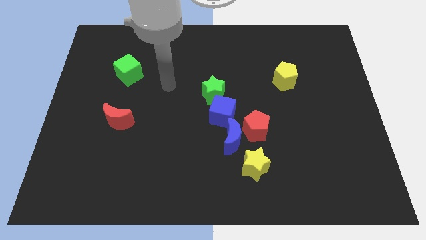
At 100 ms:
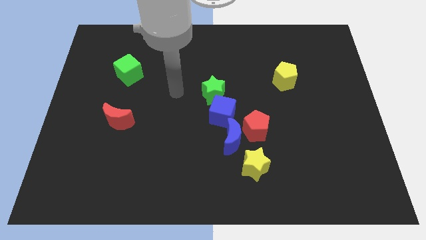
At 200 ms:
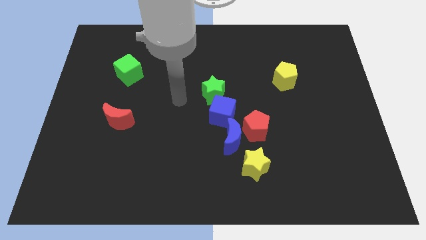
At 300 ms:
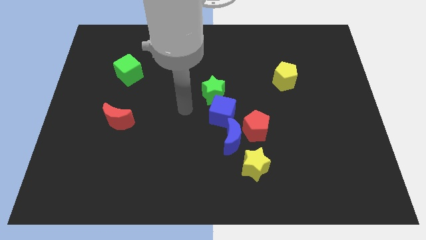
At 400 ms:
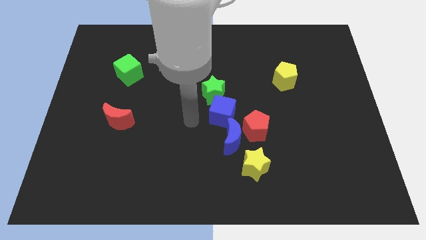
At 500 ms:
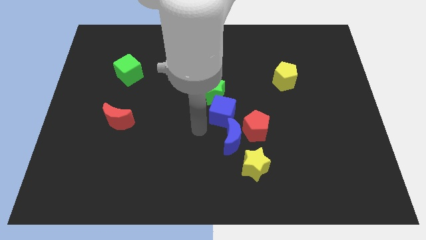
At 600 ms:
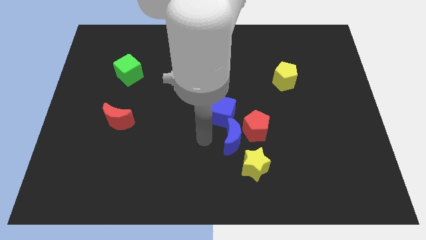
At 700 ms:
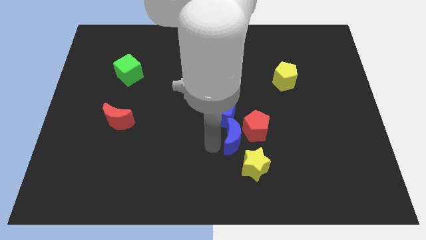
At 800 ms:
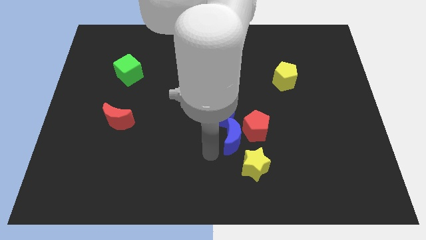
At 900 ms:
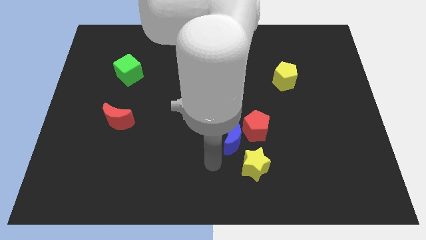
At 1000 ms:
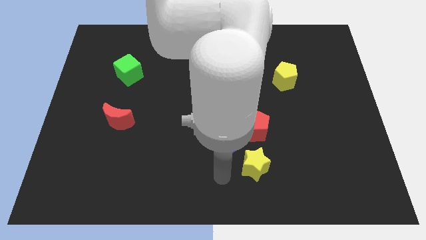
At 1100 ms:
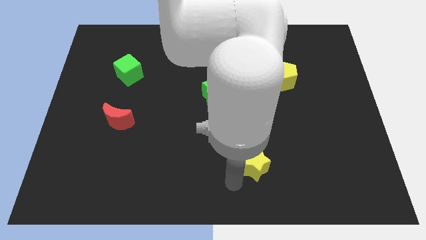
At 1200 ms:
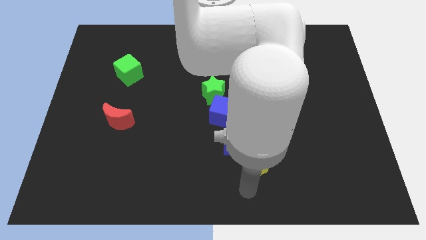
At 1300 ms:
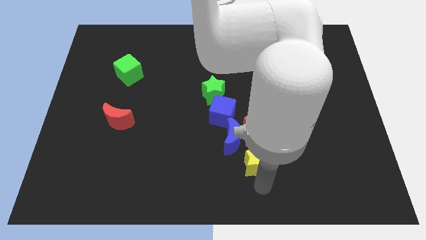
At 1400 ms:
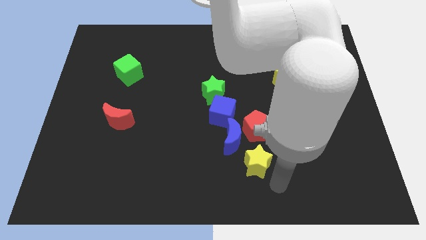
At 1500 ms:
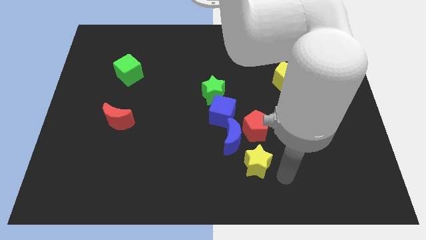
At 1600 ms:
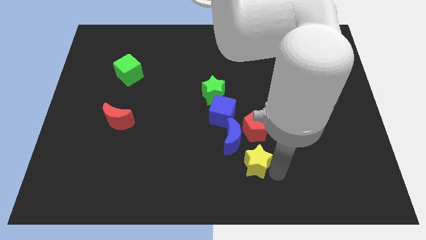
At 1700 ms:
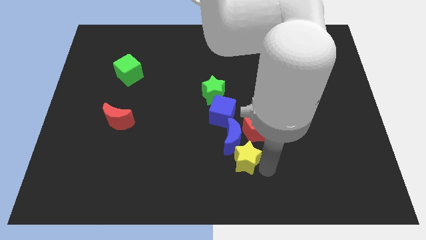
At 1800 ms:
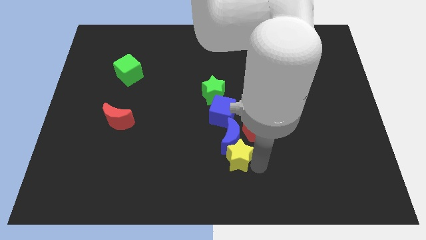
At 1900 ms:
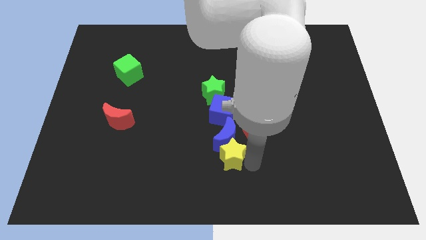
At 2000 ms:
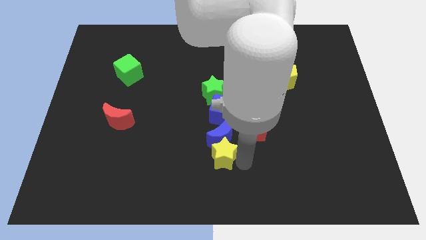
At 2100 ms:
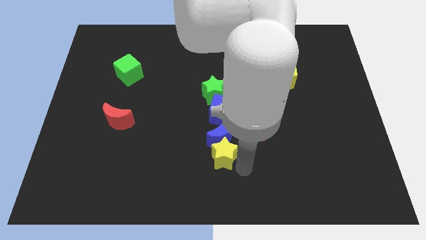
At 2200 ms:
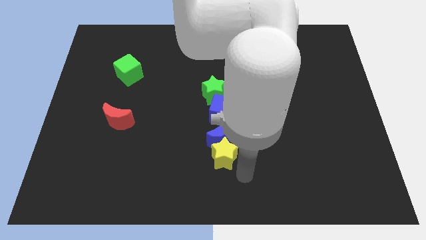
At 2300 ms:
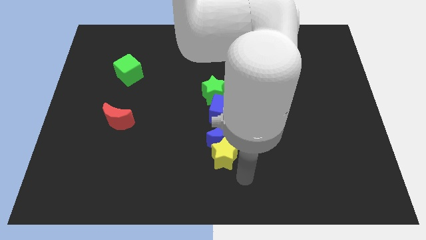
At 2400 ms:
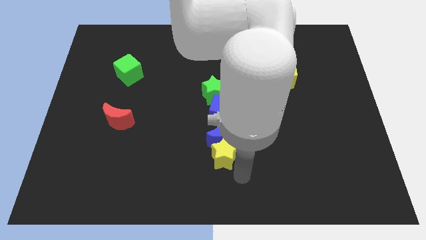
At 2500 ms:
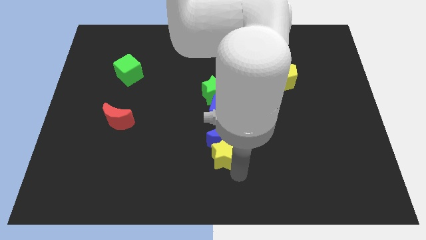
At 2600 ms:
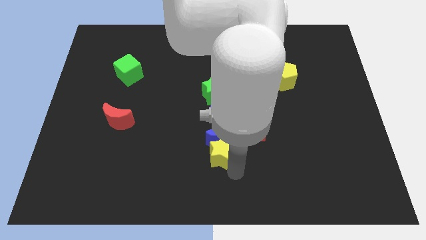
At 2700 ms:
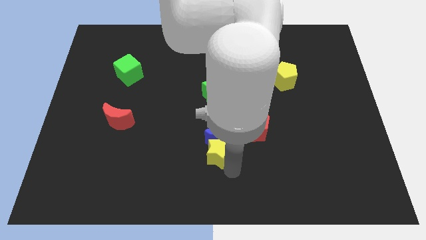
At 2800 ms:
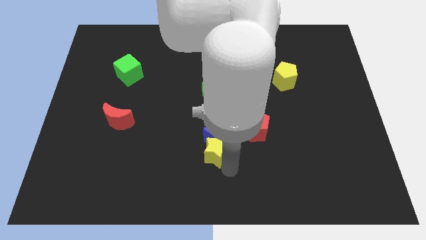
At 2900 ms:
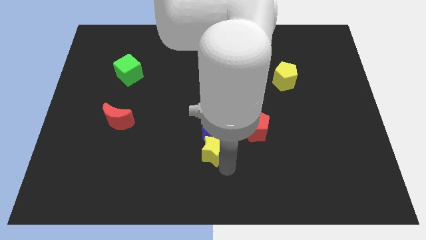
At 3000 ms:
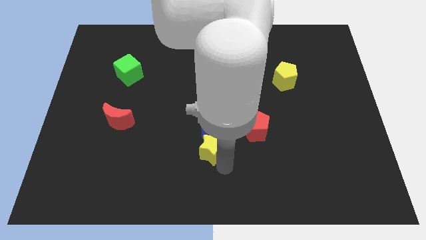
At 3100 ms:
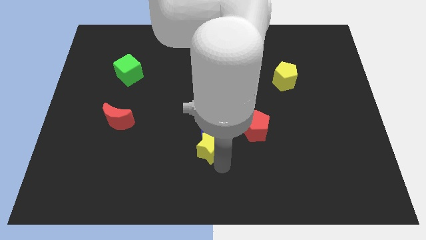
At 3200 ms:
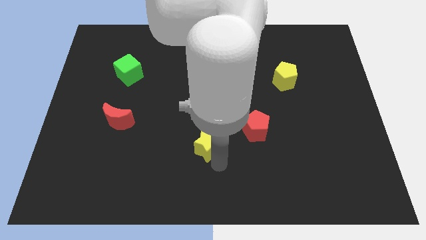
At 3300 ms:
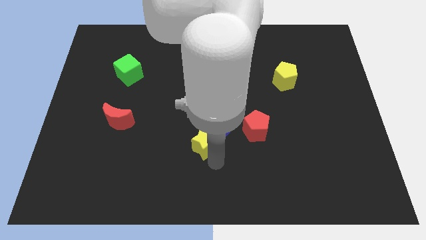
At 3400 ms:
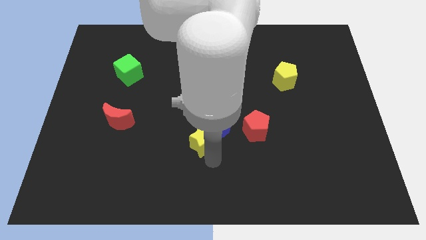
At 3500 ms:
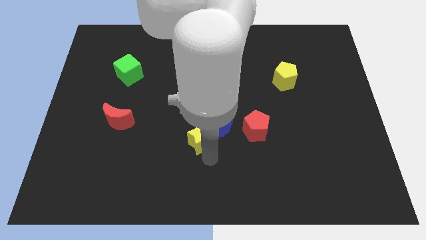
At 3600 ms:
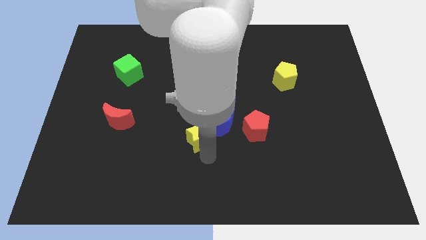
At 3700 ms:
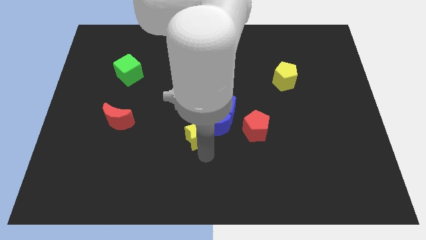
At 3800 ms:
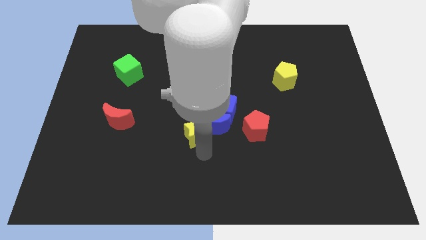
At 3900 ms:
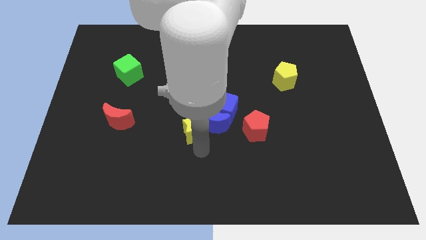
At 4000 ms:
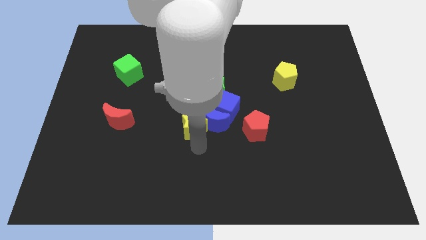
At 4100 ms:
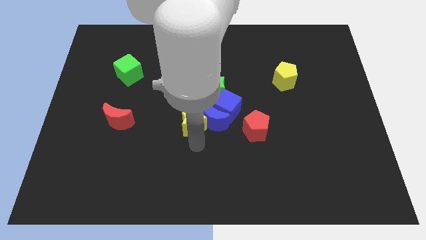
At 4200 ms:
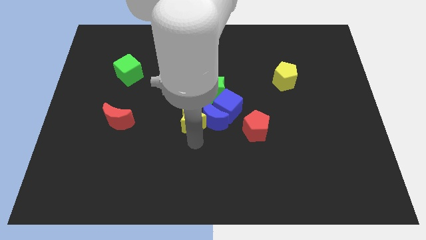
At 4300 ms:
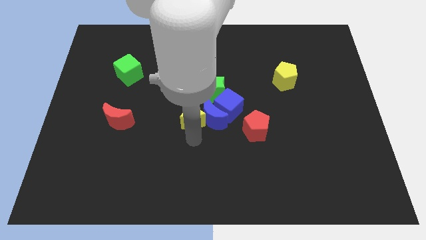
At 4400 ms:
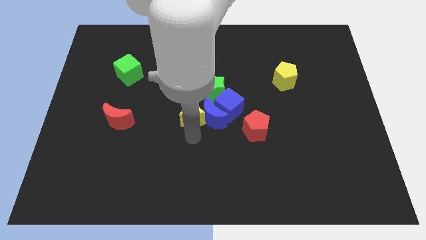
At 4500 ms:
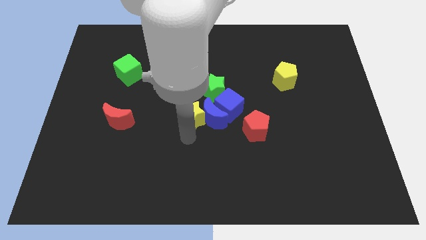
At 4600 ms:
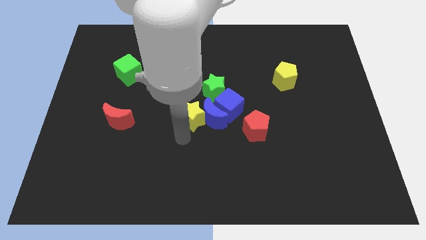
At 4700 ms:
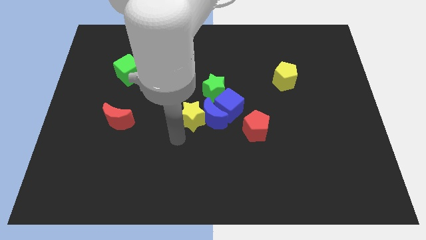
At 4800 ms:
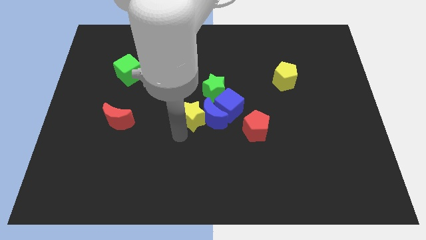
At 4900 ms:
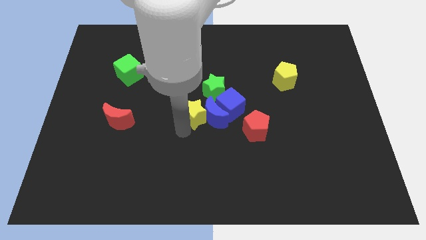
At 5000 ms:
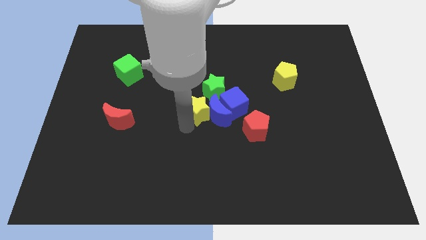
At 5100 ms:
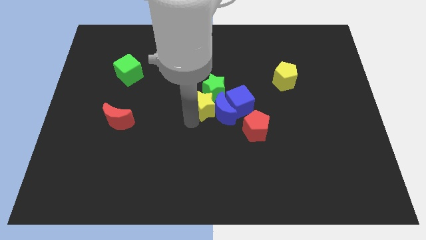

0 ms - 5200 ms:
slide the yellow star close to the green star

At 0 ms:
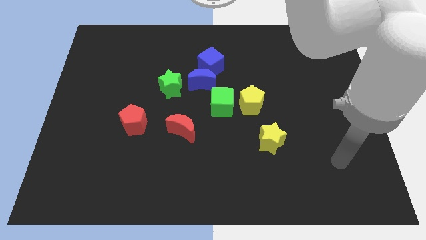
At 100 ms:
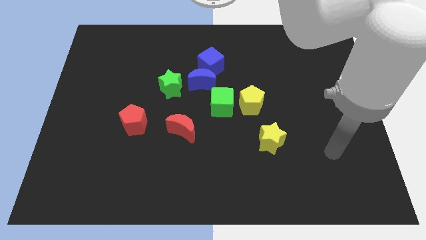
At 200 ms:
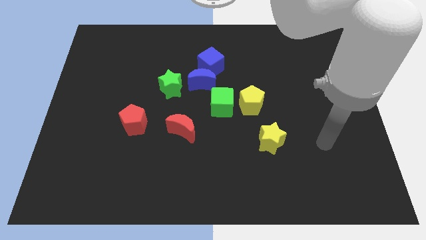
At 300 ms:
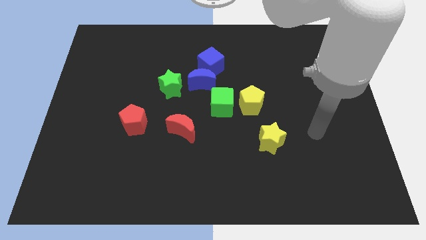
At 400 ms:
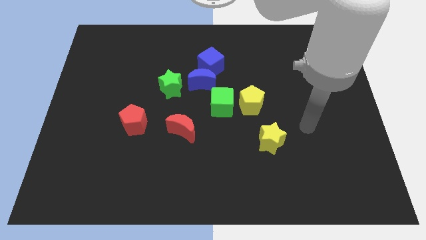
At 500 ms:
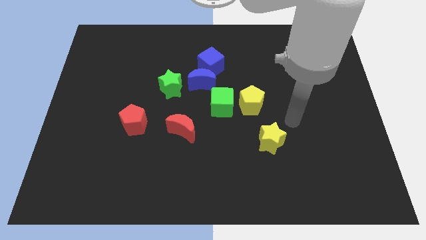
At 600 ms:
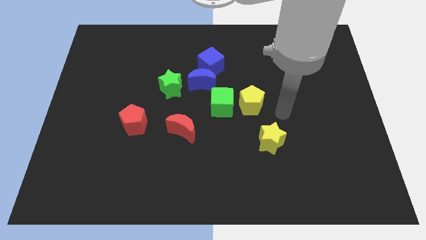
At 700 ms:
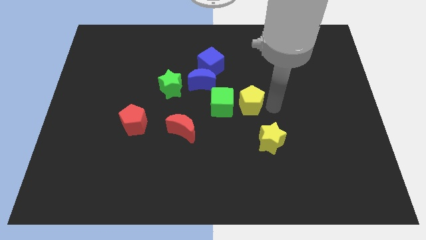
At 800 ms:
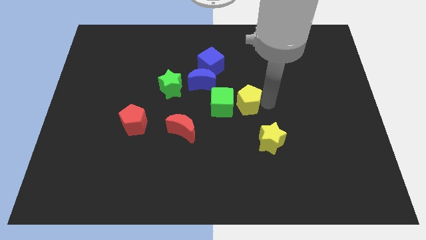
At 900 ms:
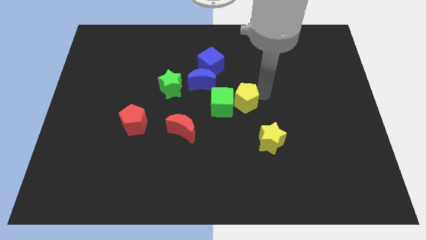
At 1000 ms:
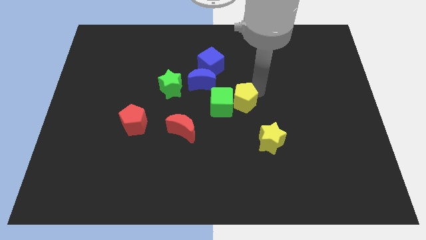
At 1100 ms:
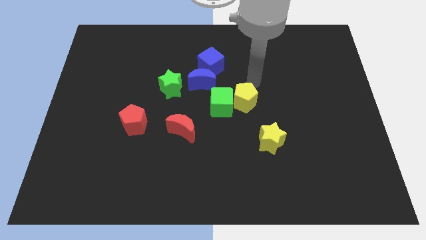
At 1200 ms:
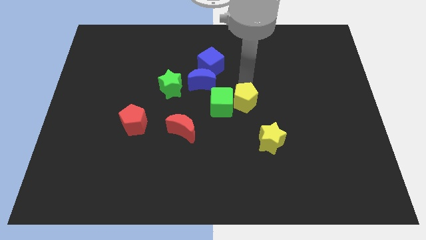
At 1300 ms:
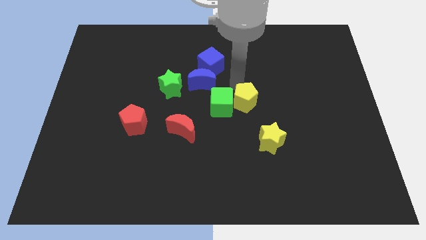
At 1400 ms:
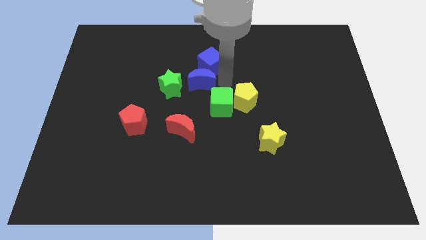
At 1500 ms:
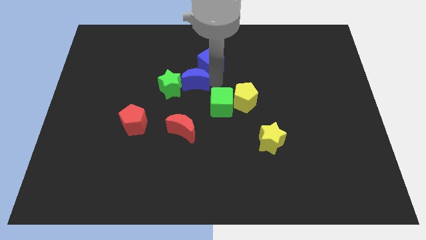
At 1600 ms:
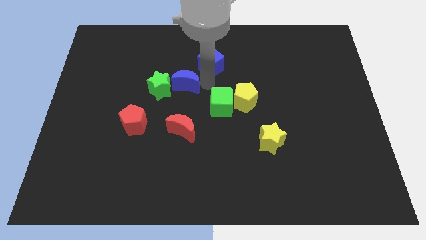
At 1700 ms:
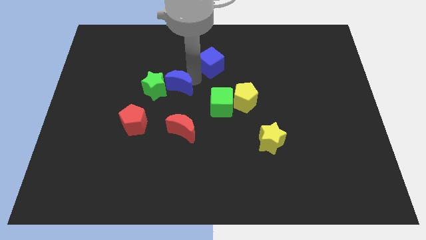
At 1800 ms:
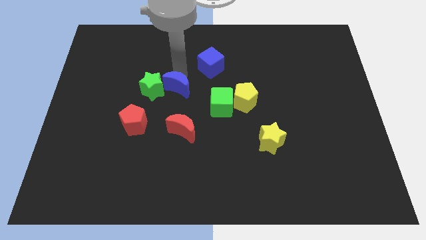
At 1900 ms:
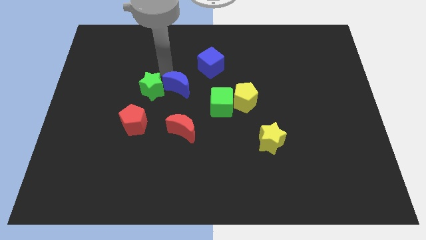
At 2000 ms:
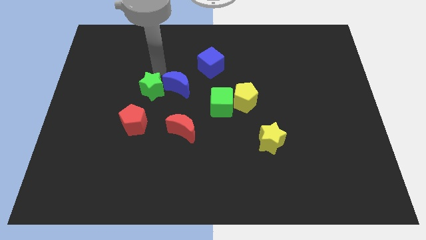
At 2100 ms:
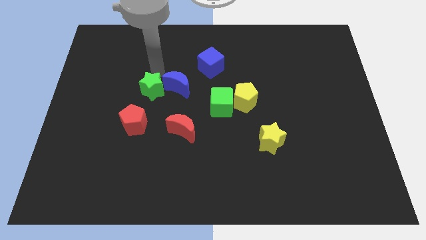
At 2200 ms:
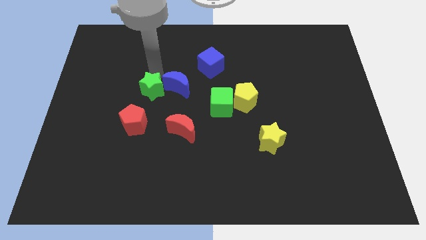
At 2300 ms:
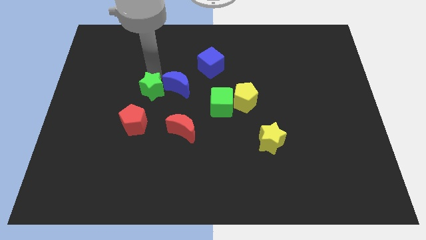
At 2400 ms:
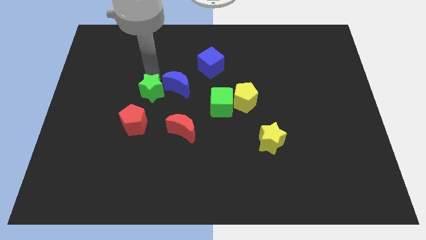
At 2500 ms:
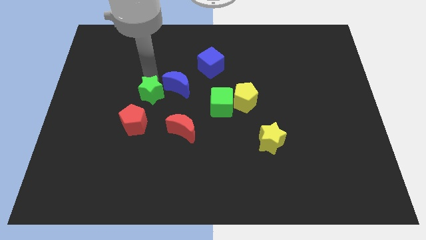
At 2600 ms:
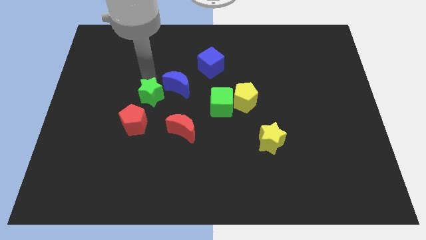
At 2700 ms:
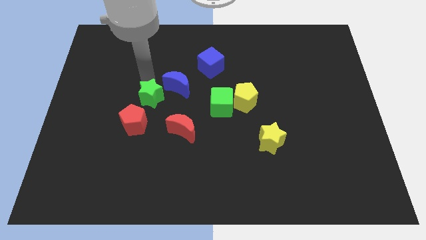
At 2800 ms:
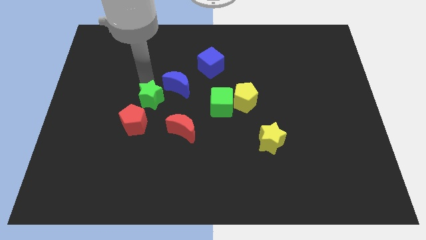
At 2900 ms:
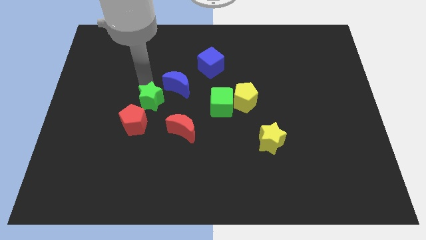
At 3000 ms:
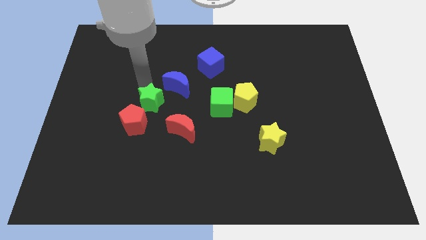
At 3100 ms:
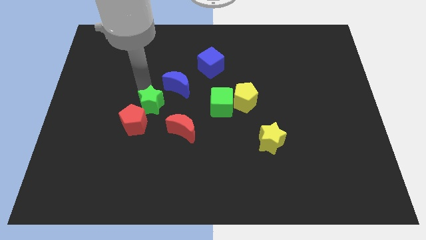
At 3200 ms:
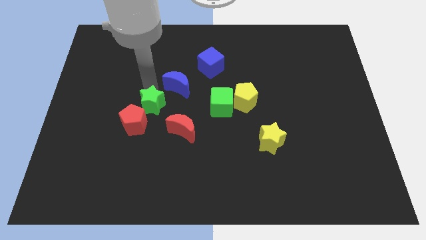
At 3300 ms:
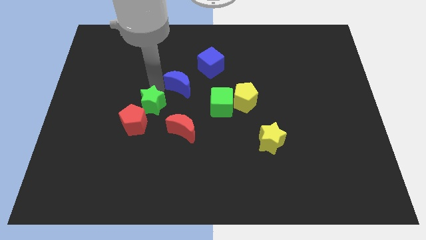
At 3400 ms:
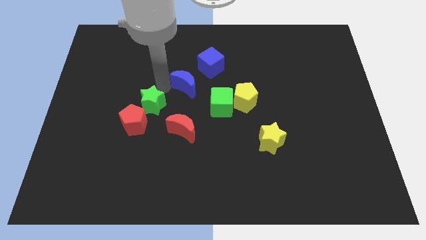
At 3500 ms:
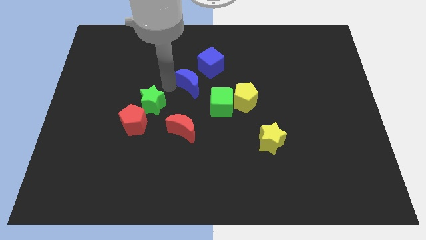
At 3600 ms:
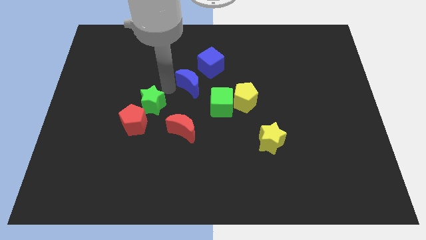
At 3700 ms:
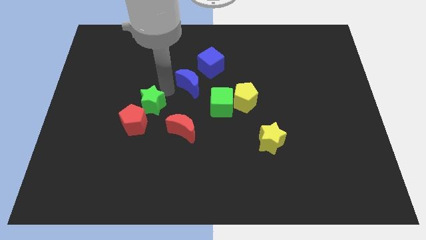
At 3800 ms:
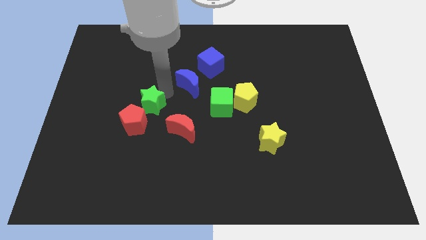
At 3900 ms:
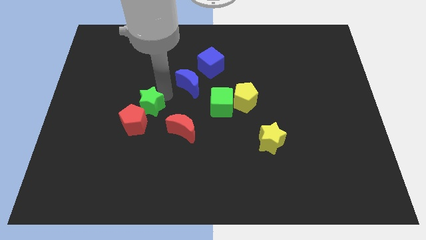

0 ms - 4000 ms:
slide the green star to the red pentagon
